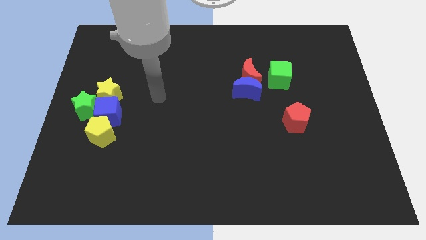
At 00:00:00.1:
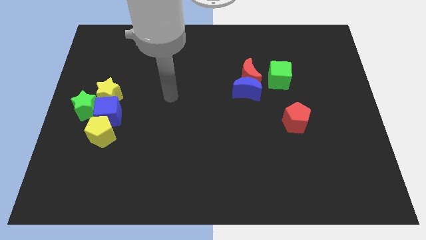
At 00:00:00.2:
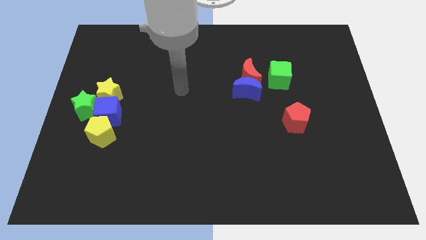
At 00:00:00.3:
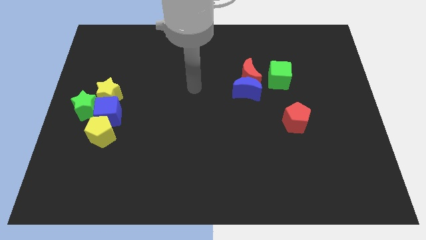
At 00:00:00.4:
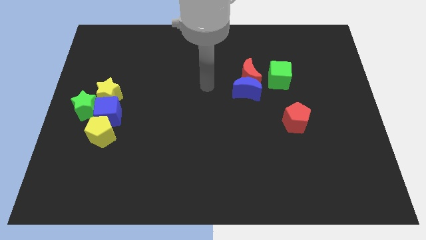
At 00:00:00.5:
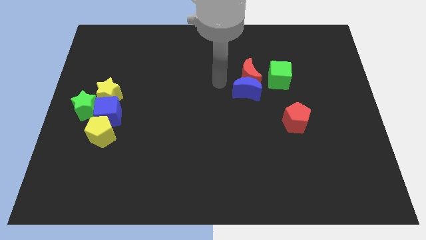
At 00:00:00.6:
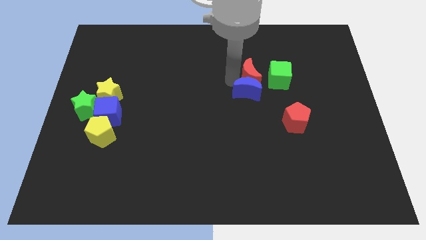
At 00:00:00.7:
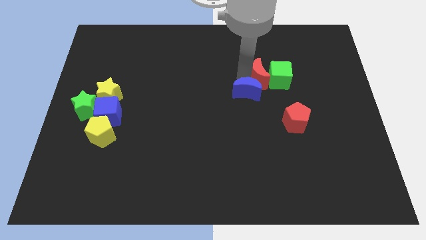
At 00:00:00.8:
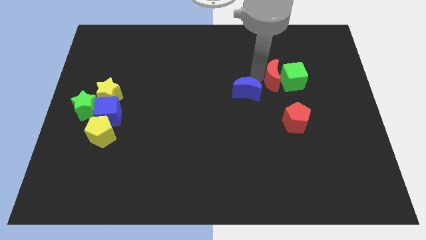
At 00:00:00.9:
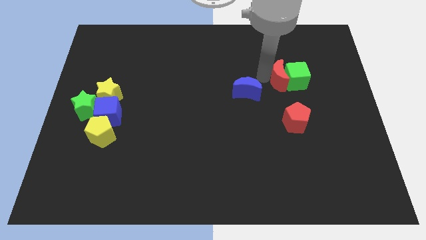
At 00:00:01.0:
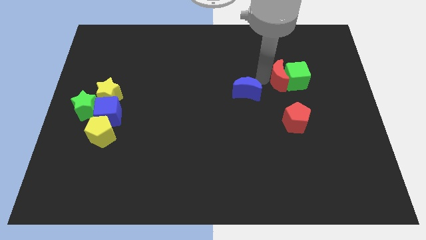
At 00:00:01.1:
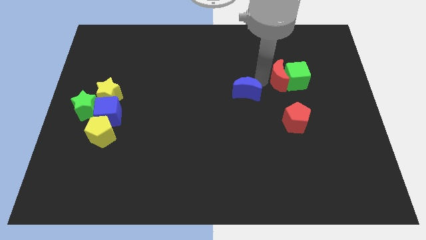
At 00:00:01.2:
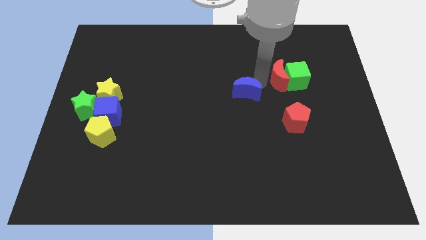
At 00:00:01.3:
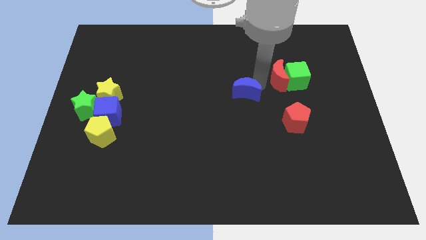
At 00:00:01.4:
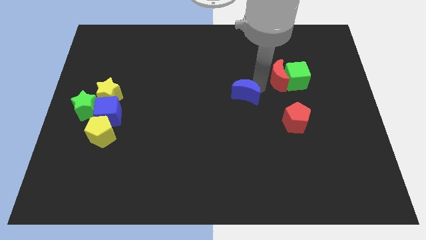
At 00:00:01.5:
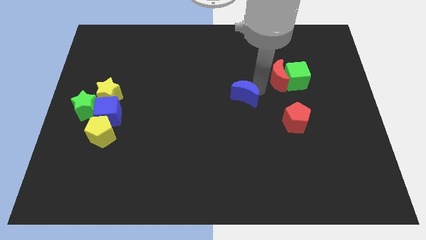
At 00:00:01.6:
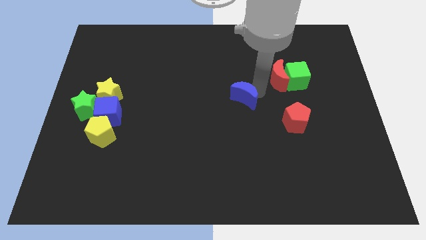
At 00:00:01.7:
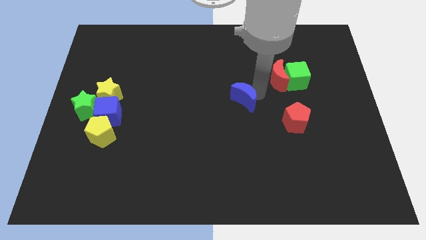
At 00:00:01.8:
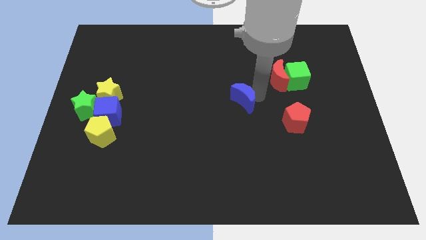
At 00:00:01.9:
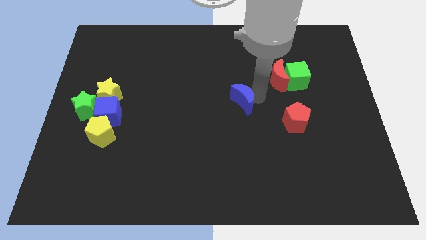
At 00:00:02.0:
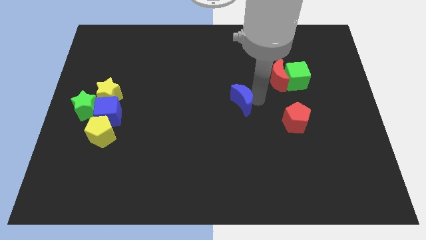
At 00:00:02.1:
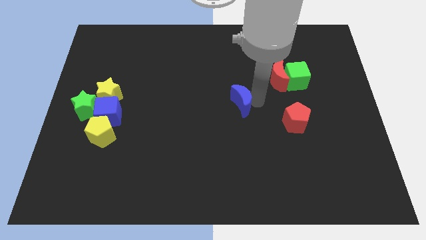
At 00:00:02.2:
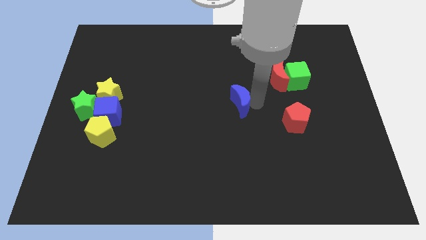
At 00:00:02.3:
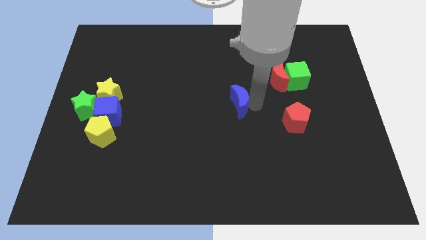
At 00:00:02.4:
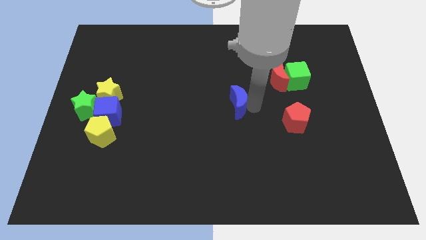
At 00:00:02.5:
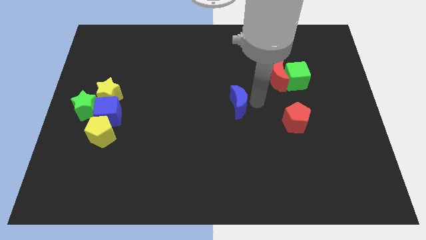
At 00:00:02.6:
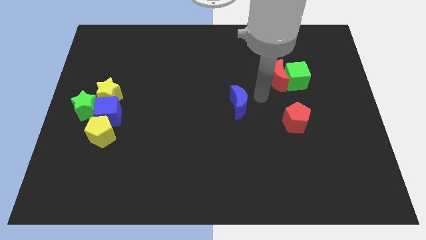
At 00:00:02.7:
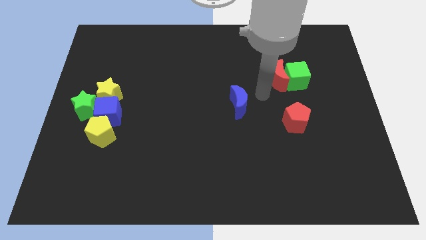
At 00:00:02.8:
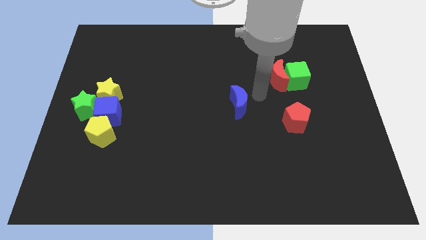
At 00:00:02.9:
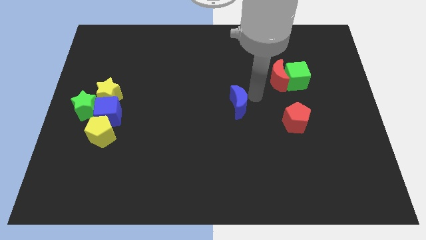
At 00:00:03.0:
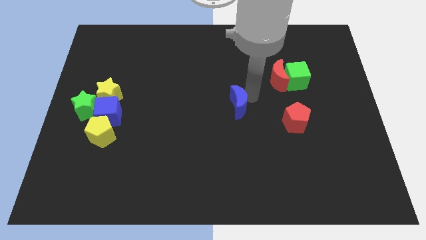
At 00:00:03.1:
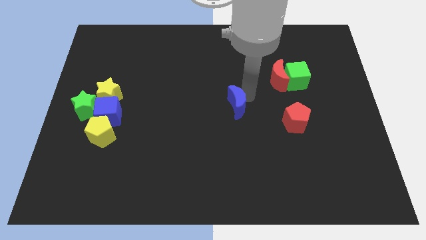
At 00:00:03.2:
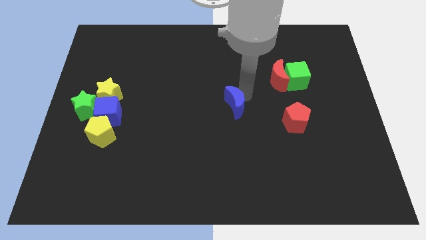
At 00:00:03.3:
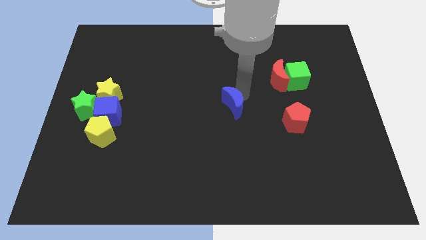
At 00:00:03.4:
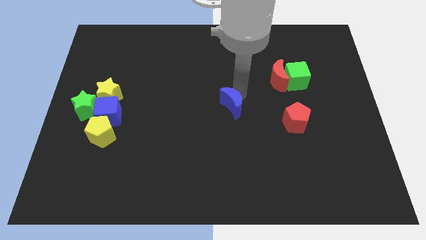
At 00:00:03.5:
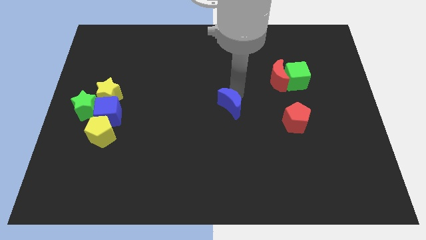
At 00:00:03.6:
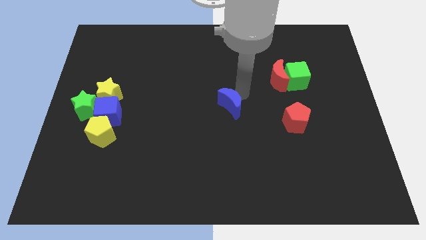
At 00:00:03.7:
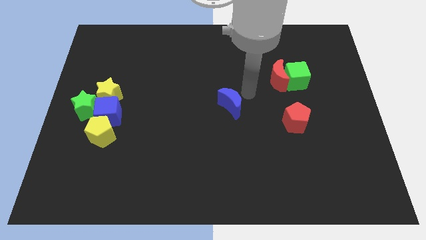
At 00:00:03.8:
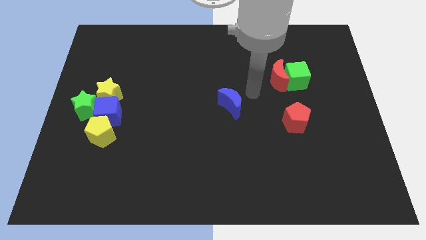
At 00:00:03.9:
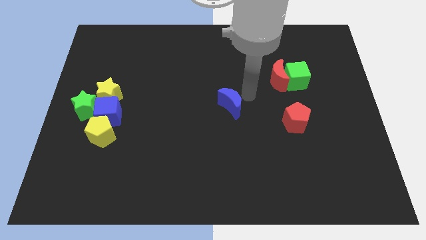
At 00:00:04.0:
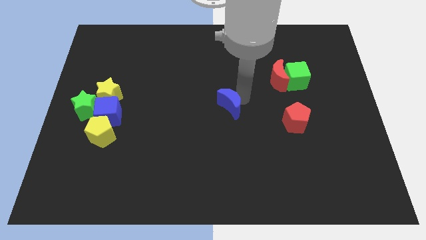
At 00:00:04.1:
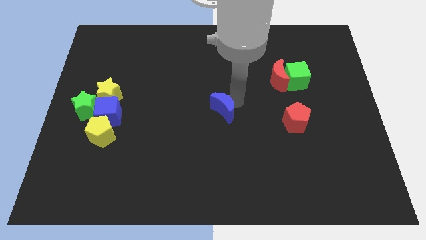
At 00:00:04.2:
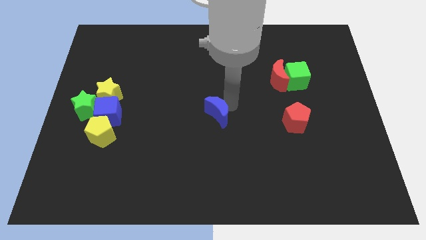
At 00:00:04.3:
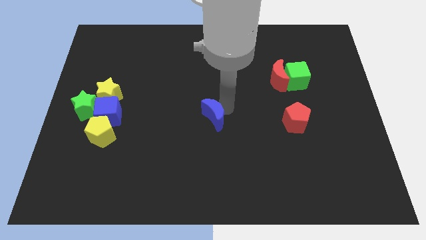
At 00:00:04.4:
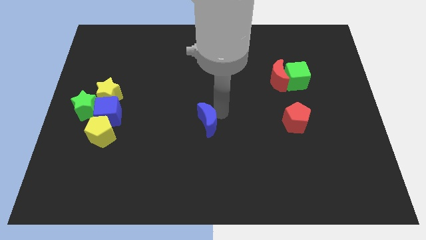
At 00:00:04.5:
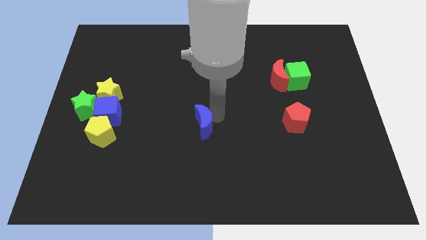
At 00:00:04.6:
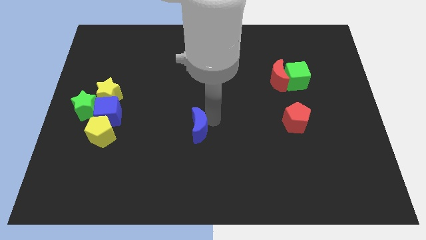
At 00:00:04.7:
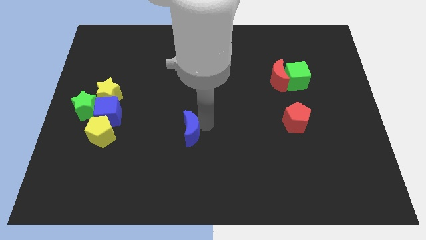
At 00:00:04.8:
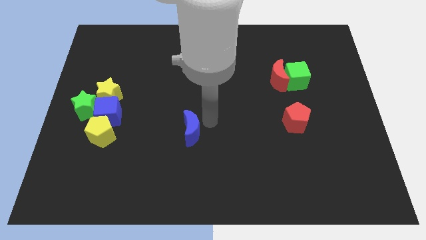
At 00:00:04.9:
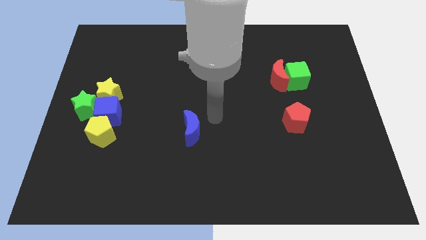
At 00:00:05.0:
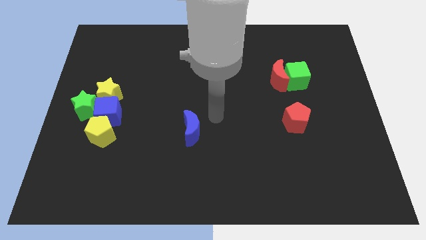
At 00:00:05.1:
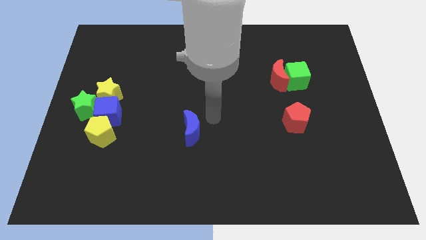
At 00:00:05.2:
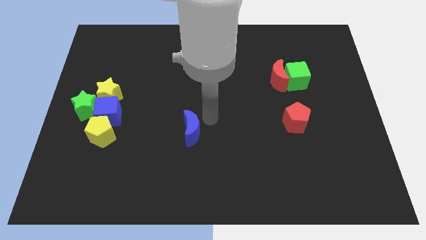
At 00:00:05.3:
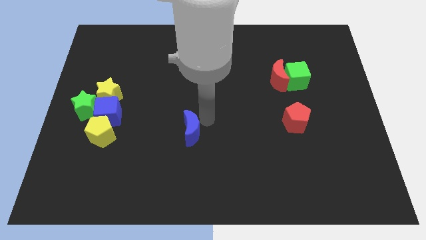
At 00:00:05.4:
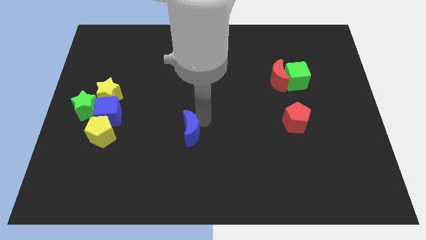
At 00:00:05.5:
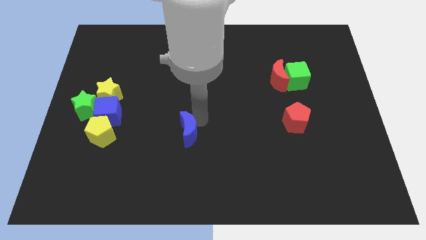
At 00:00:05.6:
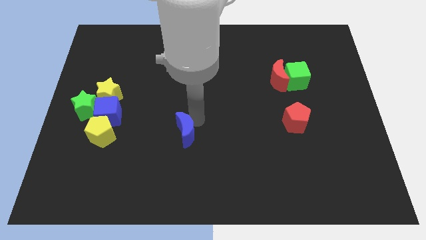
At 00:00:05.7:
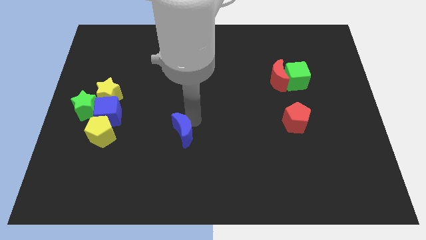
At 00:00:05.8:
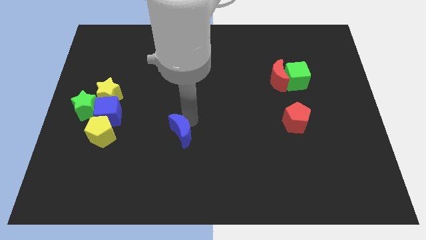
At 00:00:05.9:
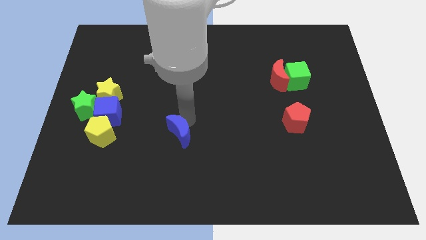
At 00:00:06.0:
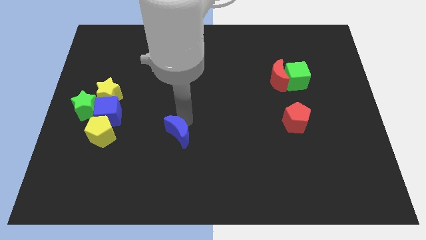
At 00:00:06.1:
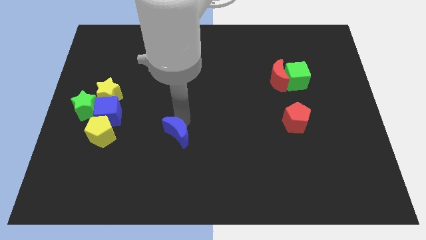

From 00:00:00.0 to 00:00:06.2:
move the blue moon down and left

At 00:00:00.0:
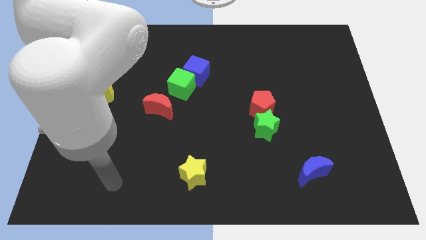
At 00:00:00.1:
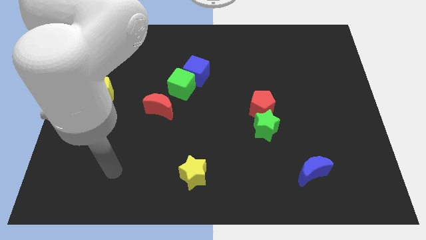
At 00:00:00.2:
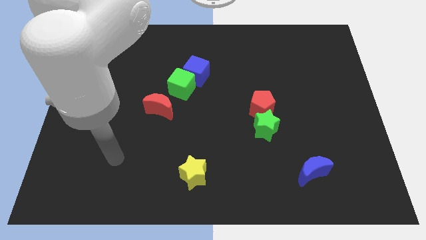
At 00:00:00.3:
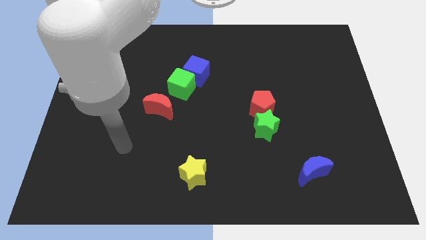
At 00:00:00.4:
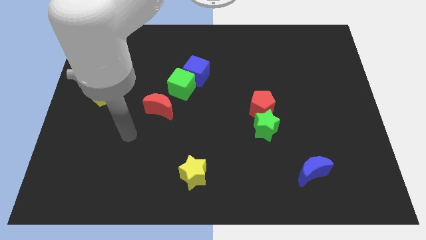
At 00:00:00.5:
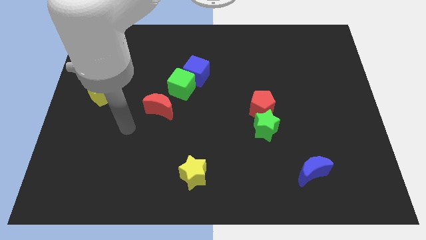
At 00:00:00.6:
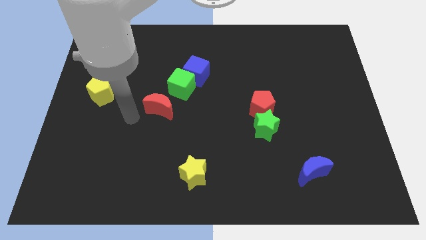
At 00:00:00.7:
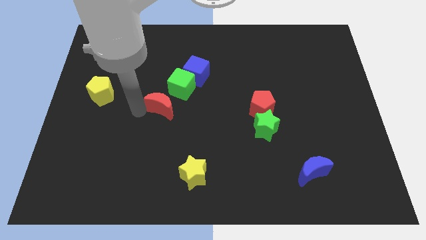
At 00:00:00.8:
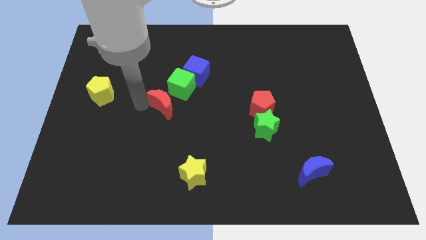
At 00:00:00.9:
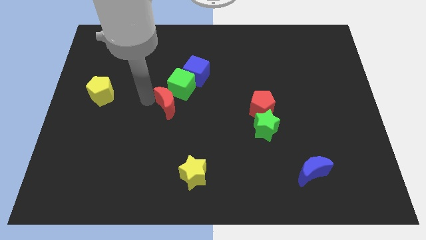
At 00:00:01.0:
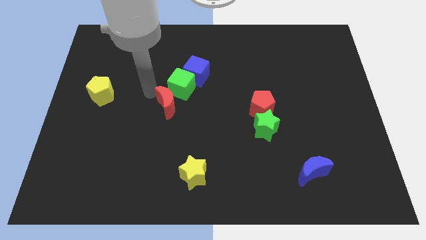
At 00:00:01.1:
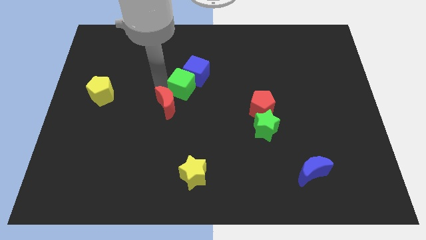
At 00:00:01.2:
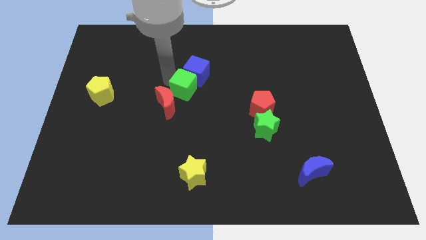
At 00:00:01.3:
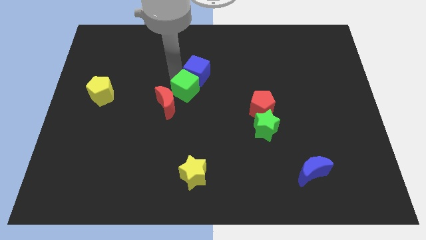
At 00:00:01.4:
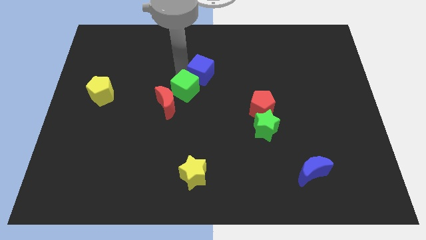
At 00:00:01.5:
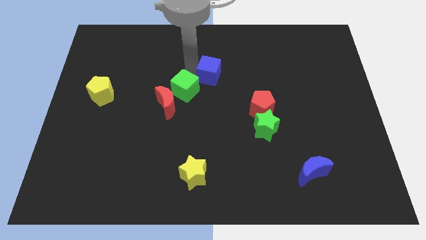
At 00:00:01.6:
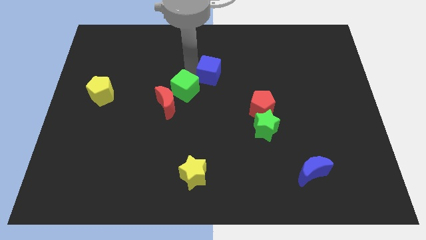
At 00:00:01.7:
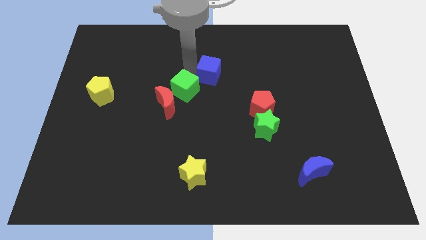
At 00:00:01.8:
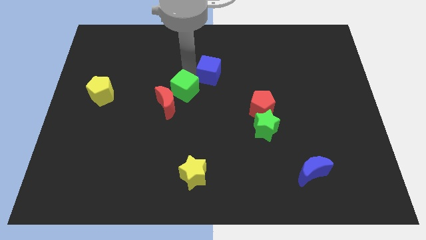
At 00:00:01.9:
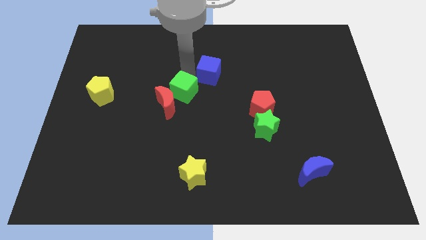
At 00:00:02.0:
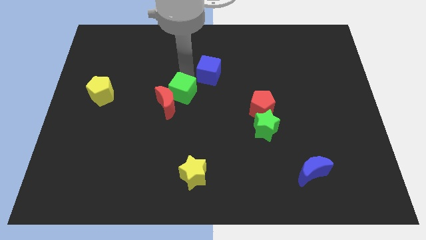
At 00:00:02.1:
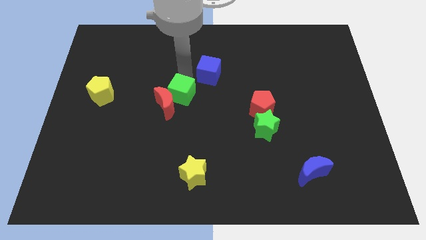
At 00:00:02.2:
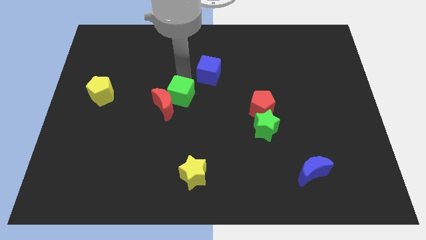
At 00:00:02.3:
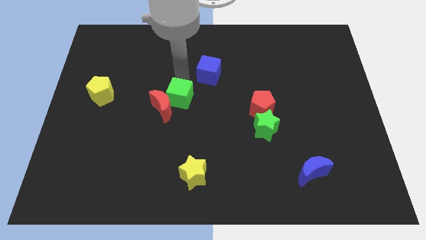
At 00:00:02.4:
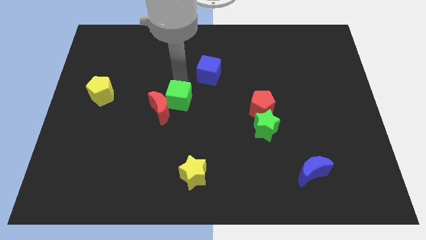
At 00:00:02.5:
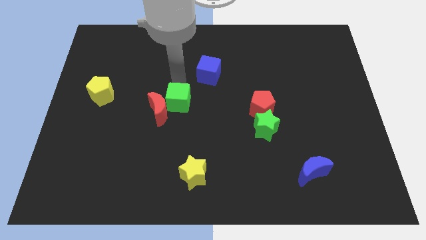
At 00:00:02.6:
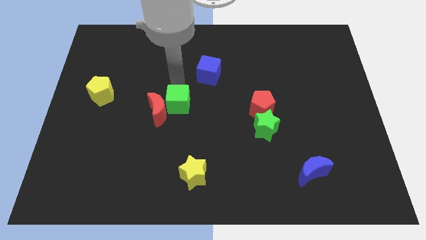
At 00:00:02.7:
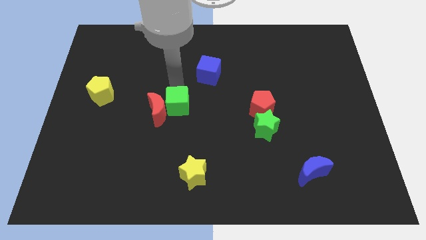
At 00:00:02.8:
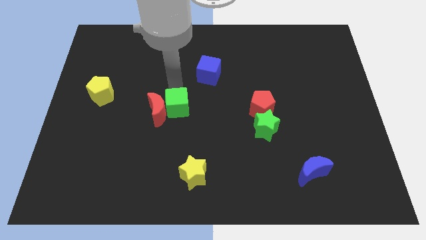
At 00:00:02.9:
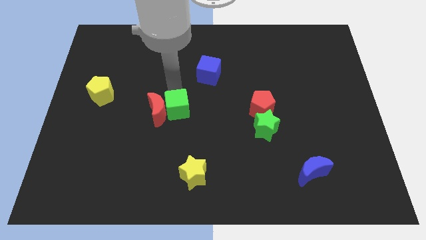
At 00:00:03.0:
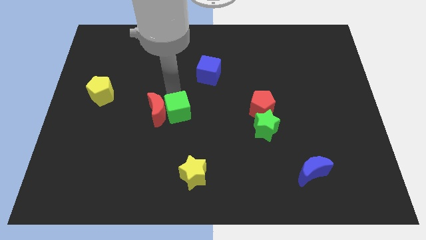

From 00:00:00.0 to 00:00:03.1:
slide the green cube a bit down
